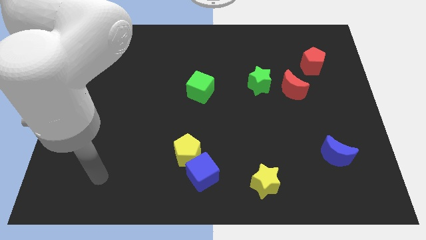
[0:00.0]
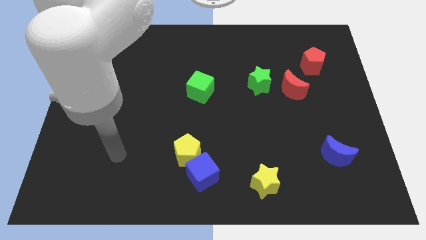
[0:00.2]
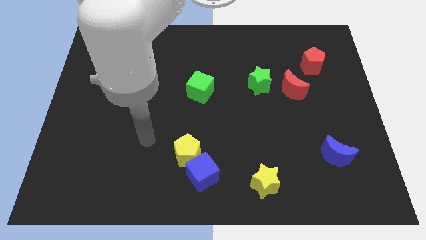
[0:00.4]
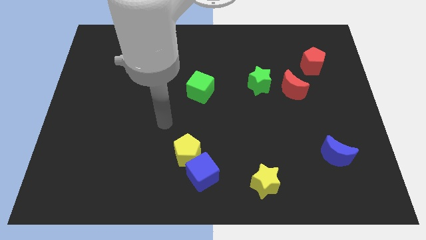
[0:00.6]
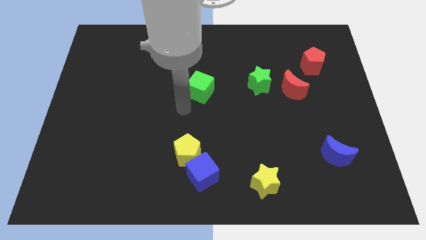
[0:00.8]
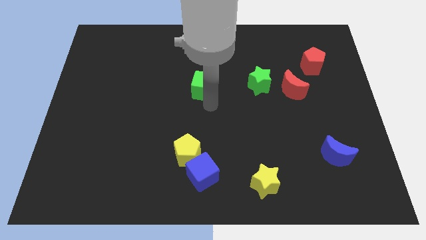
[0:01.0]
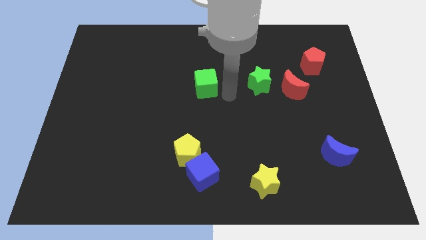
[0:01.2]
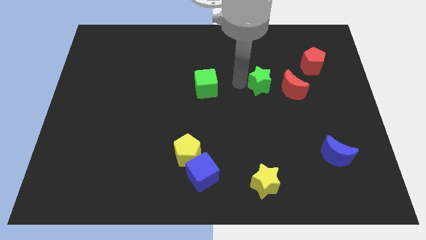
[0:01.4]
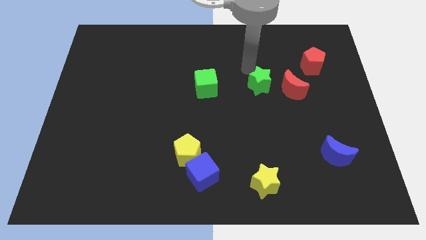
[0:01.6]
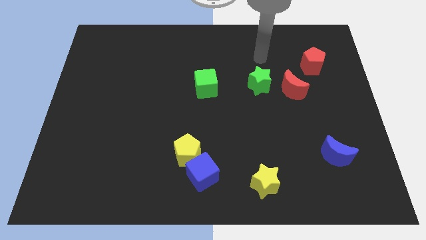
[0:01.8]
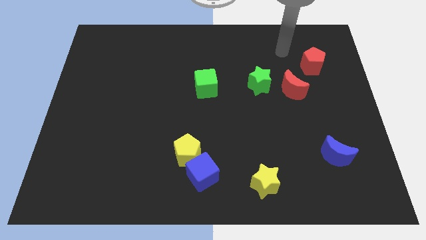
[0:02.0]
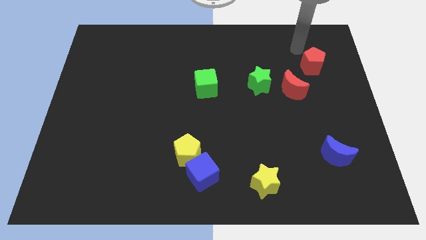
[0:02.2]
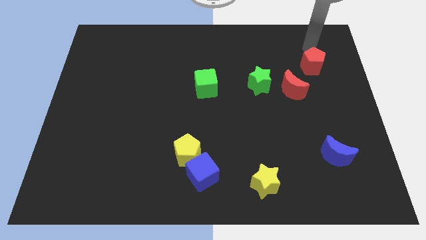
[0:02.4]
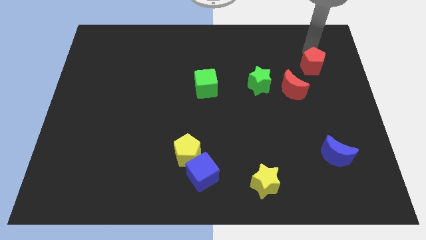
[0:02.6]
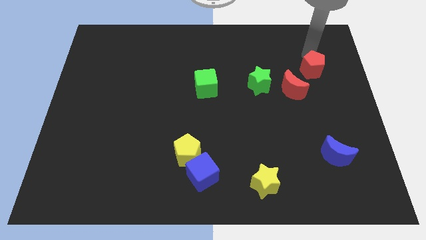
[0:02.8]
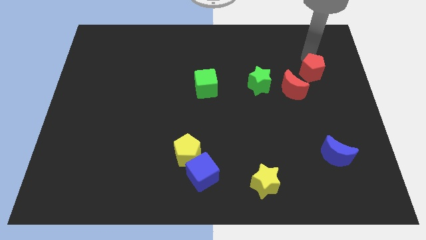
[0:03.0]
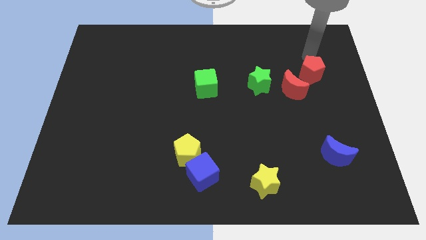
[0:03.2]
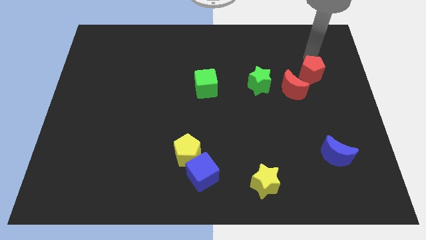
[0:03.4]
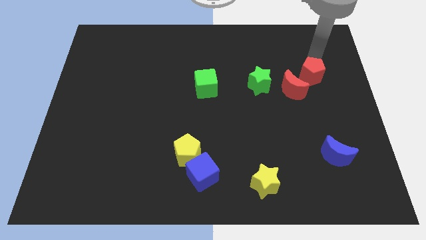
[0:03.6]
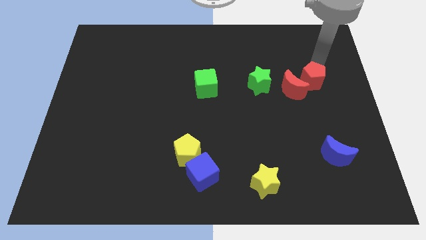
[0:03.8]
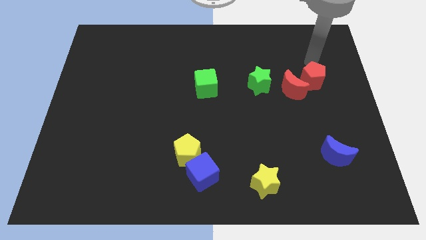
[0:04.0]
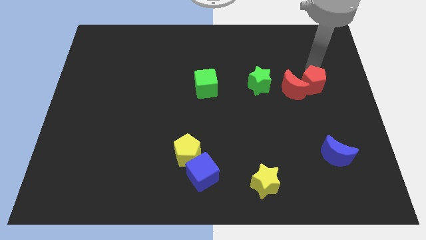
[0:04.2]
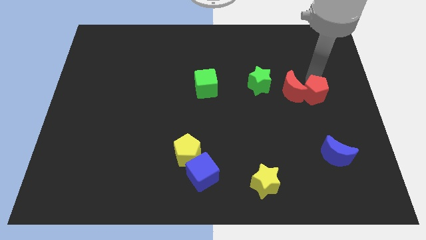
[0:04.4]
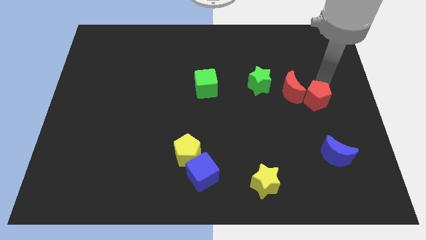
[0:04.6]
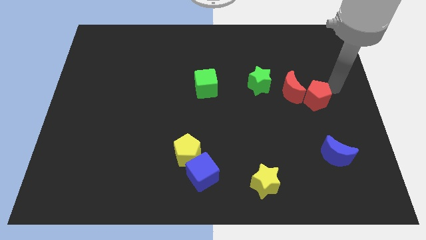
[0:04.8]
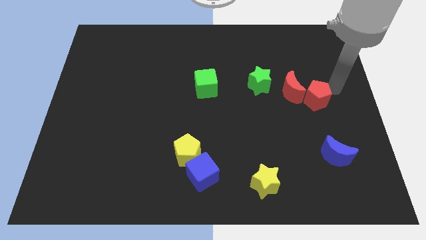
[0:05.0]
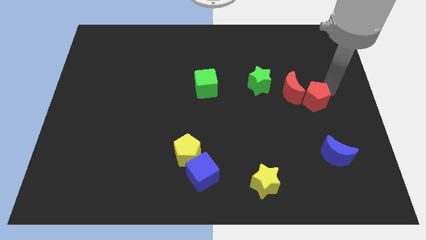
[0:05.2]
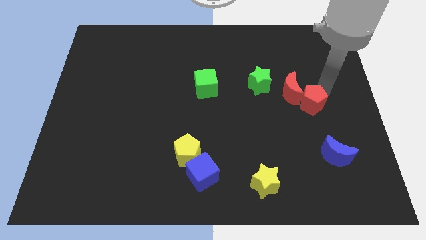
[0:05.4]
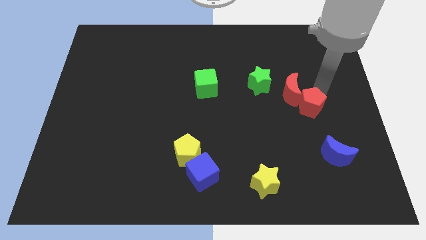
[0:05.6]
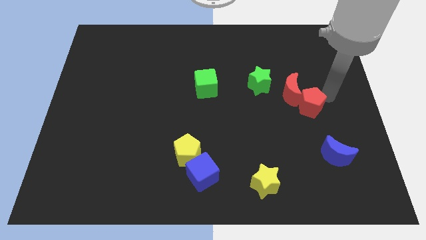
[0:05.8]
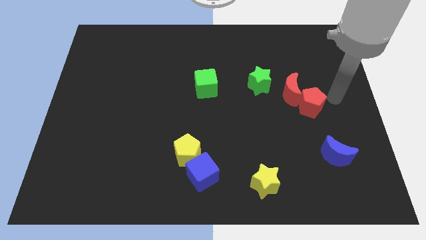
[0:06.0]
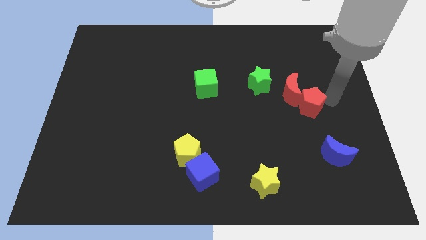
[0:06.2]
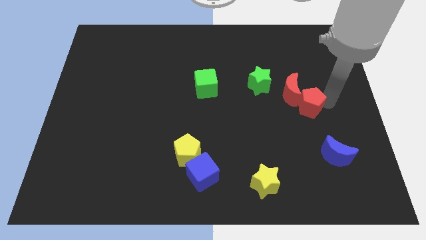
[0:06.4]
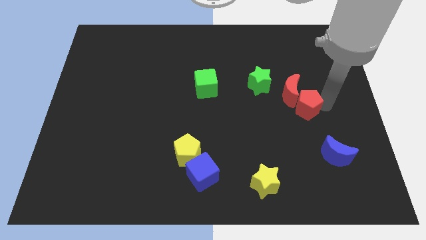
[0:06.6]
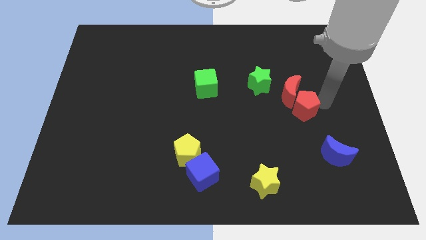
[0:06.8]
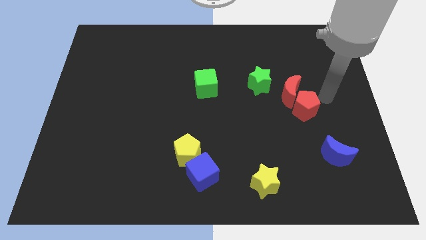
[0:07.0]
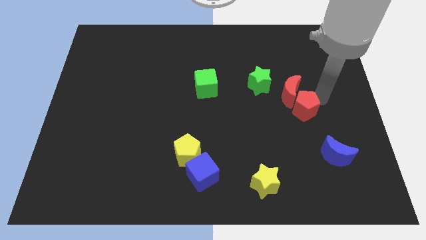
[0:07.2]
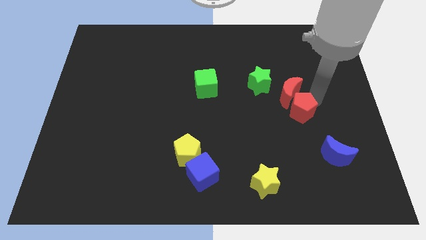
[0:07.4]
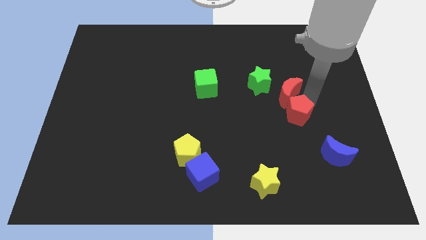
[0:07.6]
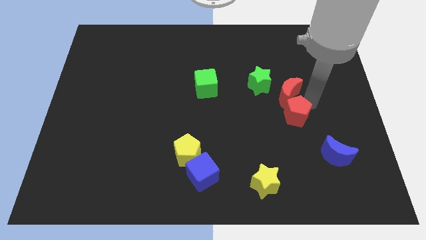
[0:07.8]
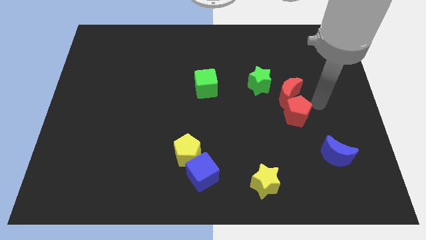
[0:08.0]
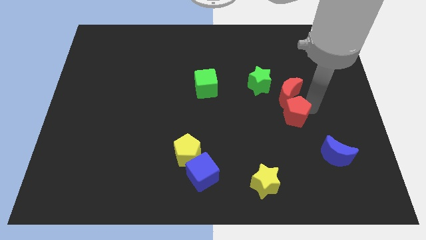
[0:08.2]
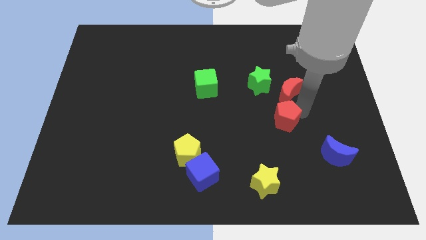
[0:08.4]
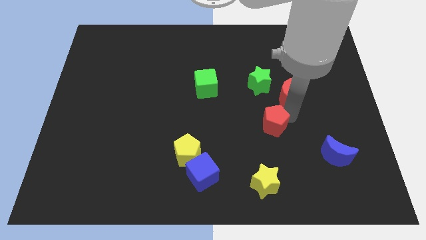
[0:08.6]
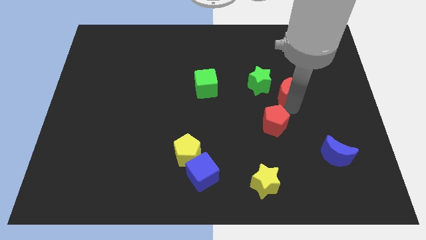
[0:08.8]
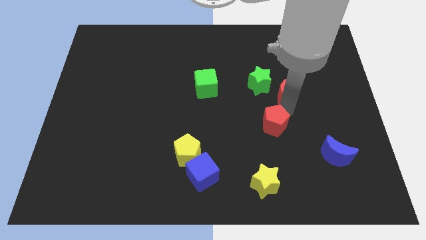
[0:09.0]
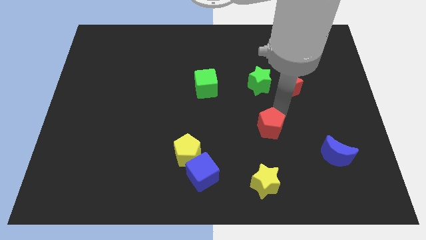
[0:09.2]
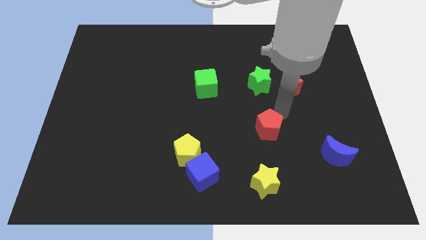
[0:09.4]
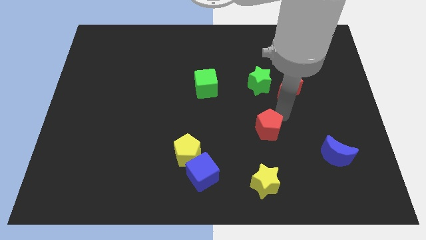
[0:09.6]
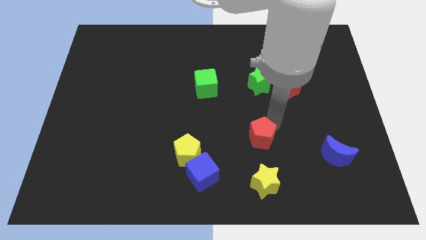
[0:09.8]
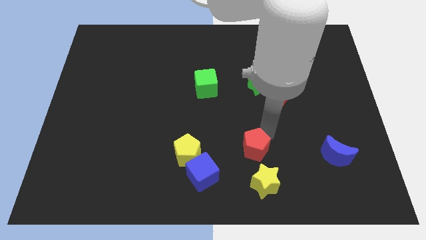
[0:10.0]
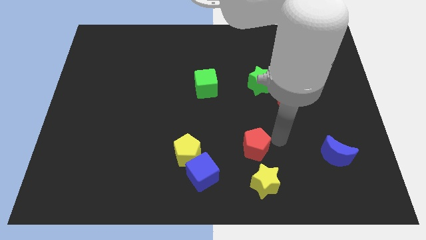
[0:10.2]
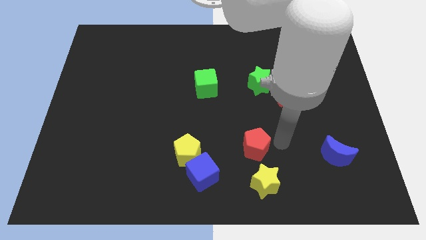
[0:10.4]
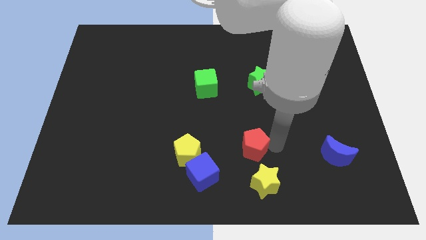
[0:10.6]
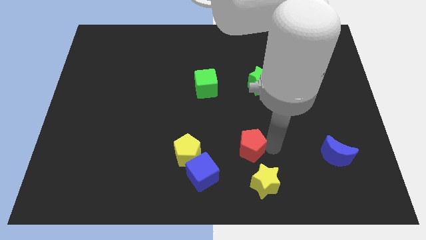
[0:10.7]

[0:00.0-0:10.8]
move the red pentagon to the top right of the blue cube

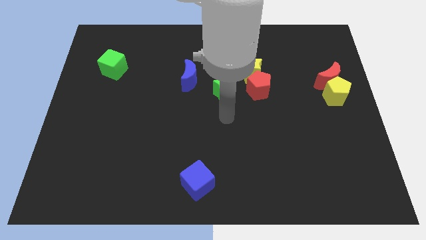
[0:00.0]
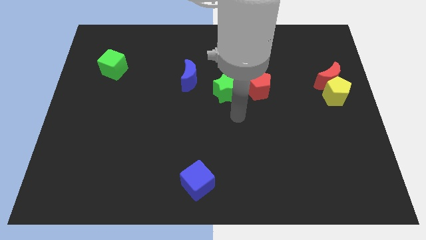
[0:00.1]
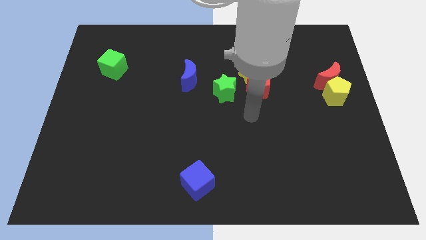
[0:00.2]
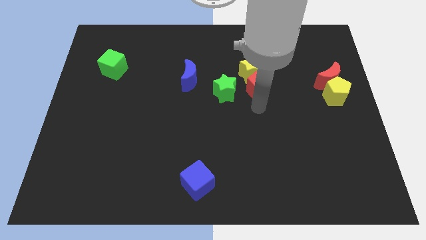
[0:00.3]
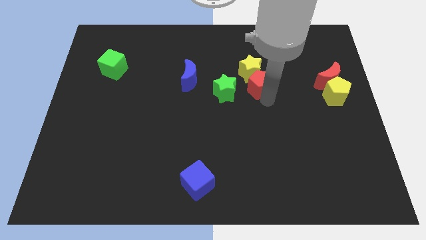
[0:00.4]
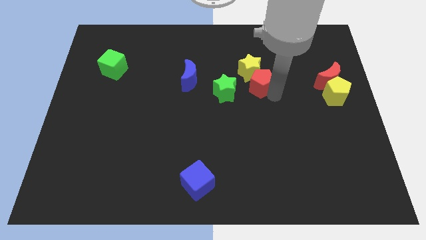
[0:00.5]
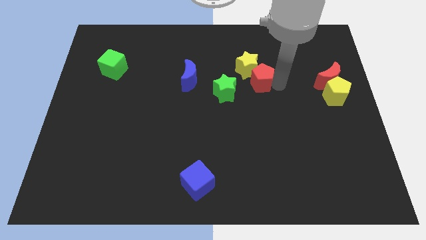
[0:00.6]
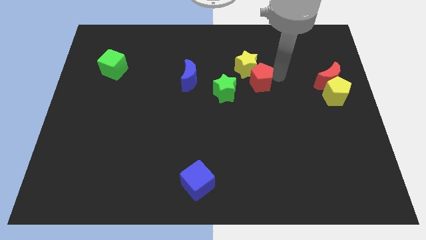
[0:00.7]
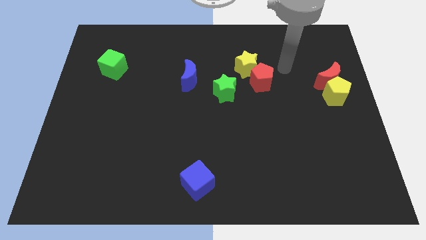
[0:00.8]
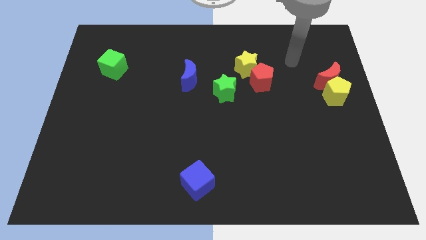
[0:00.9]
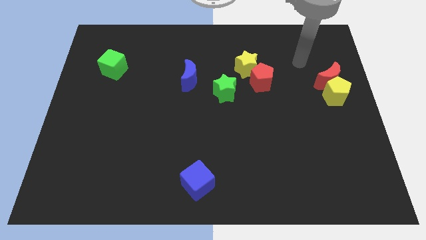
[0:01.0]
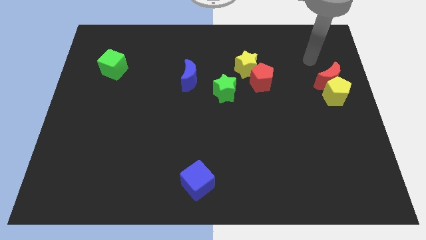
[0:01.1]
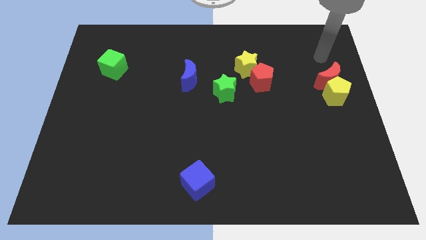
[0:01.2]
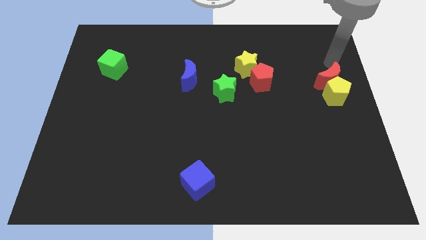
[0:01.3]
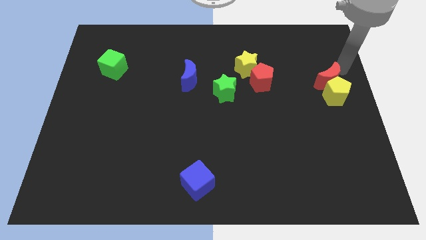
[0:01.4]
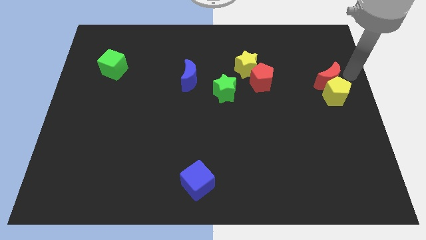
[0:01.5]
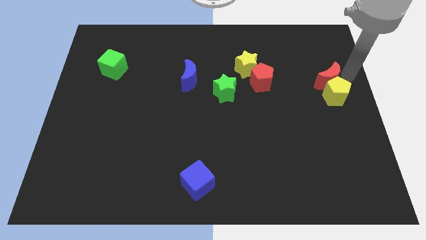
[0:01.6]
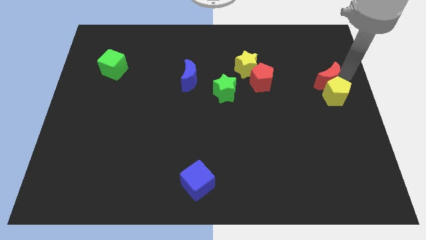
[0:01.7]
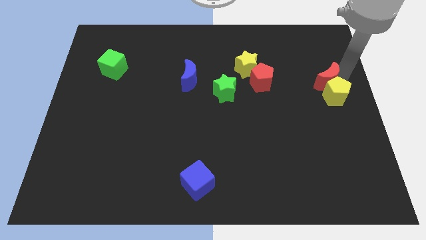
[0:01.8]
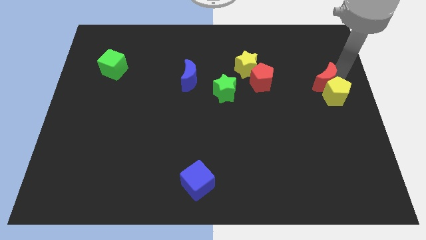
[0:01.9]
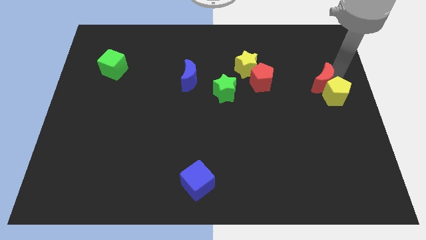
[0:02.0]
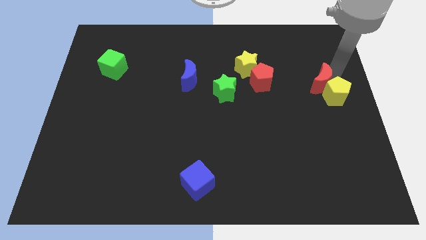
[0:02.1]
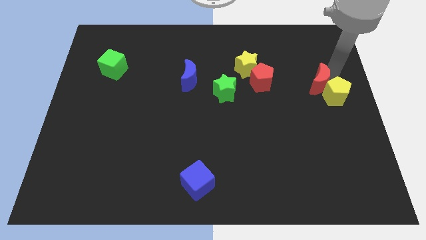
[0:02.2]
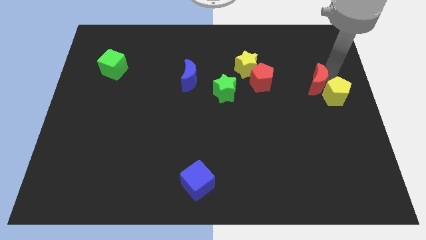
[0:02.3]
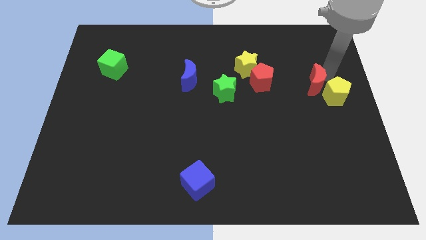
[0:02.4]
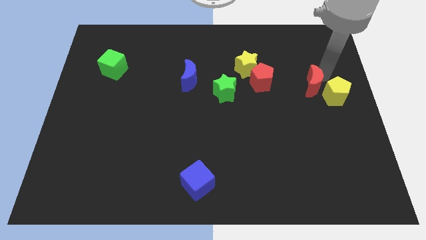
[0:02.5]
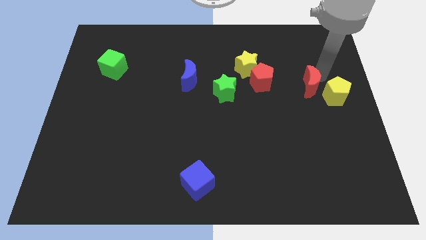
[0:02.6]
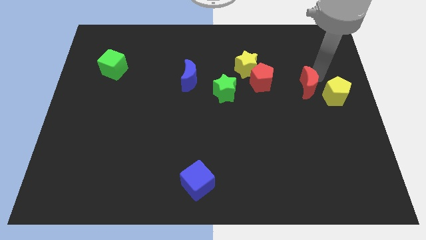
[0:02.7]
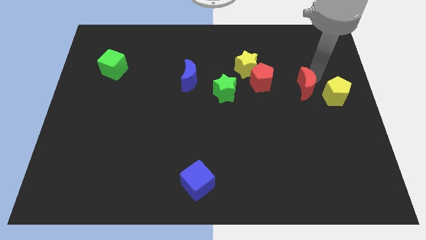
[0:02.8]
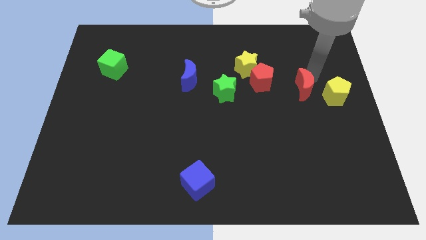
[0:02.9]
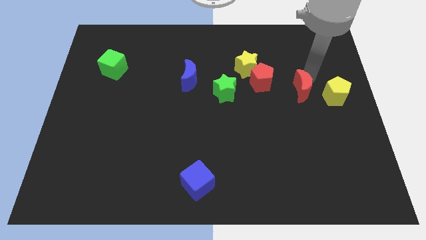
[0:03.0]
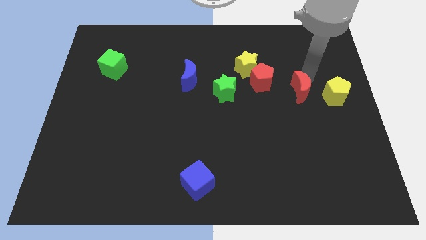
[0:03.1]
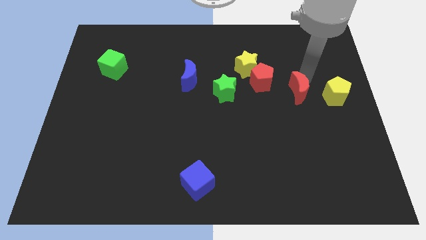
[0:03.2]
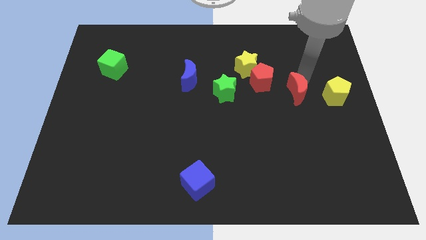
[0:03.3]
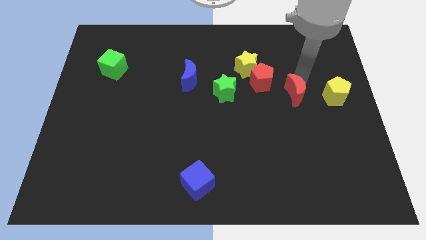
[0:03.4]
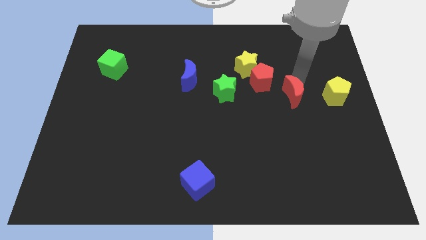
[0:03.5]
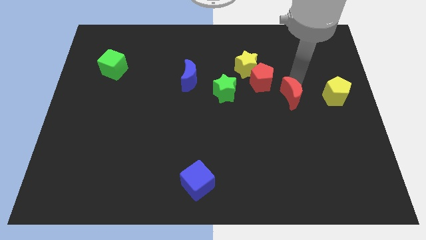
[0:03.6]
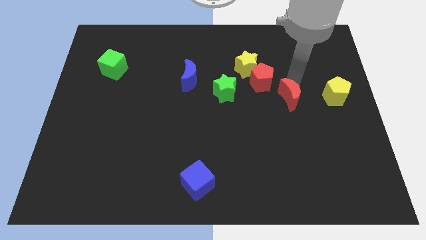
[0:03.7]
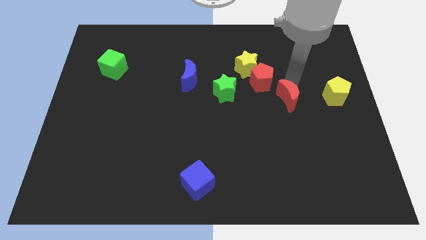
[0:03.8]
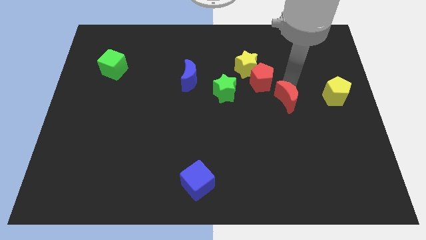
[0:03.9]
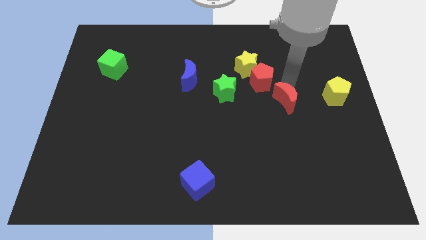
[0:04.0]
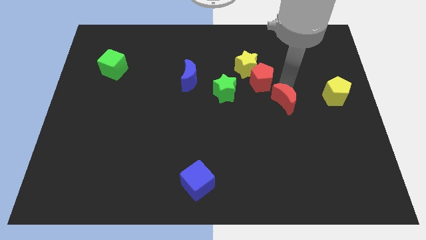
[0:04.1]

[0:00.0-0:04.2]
push the red moon to the bottom of the red pentagon
